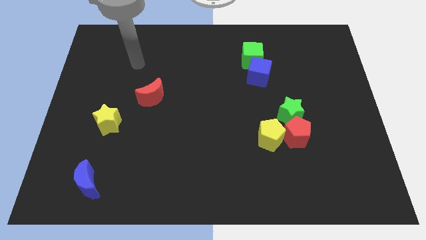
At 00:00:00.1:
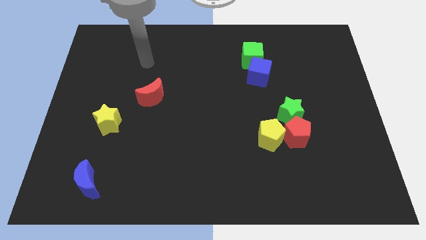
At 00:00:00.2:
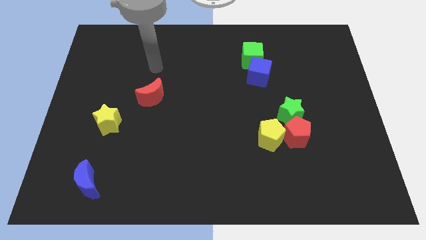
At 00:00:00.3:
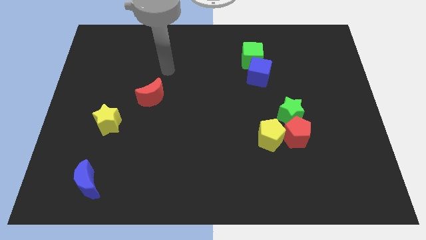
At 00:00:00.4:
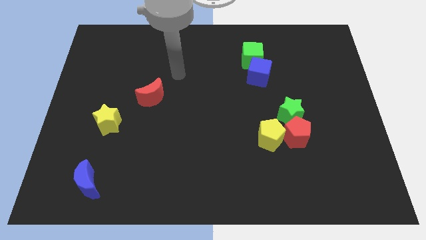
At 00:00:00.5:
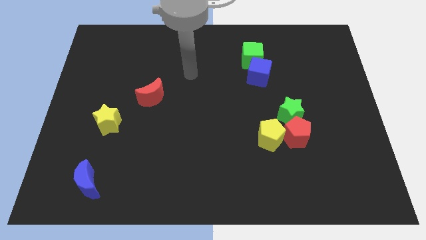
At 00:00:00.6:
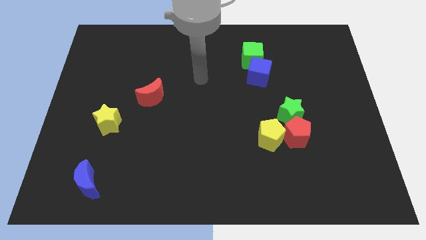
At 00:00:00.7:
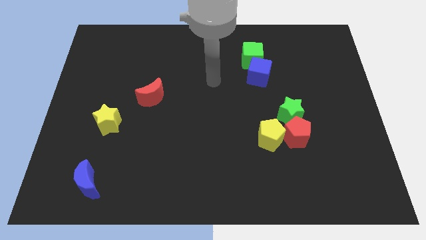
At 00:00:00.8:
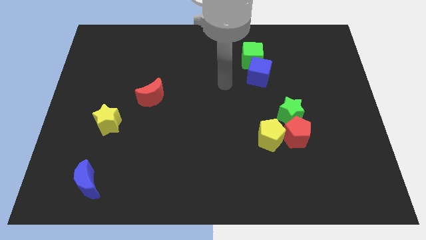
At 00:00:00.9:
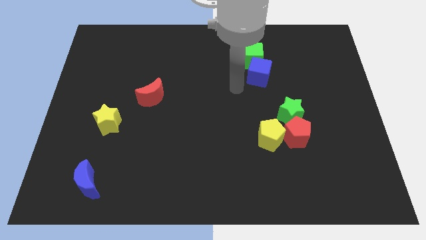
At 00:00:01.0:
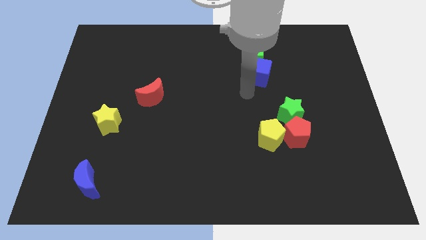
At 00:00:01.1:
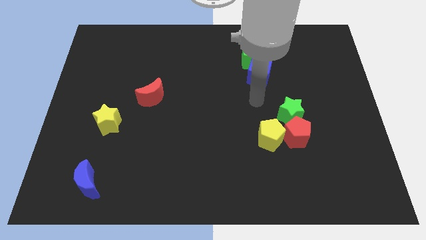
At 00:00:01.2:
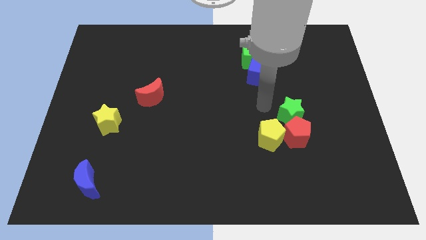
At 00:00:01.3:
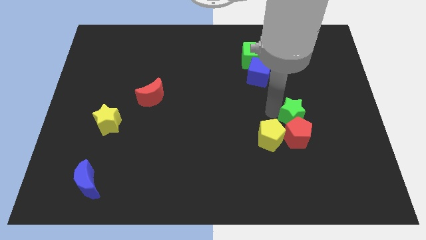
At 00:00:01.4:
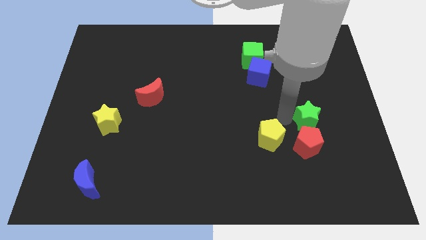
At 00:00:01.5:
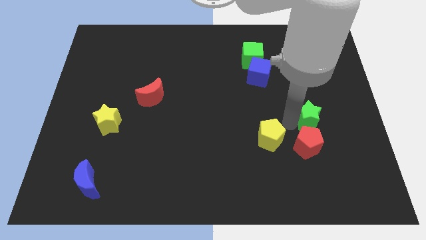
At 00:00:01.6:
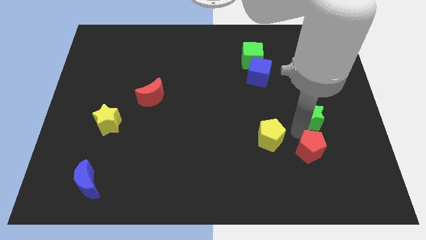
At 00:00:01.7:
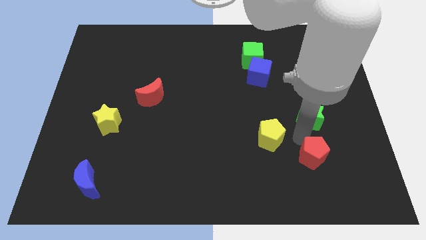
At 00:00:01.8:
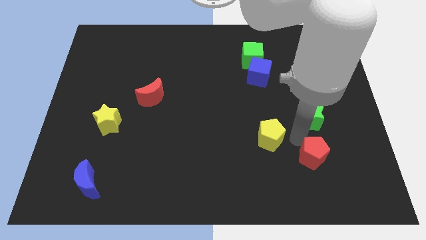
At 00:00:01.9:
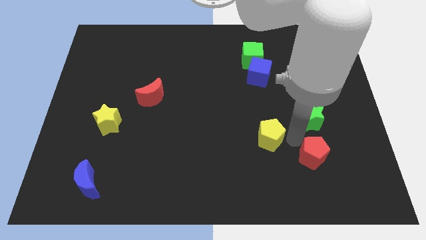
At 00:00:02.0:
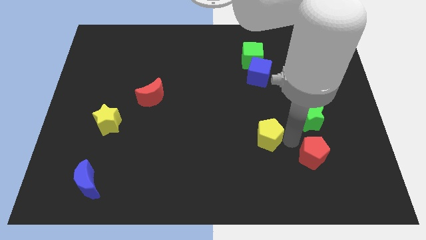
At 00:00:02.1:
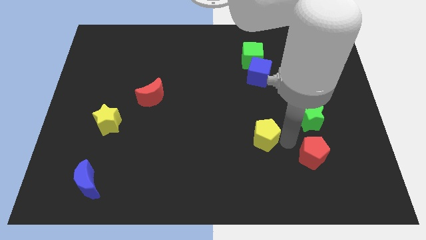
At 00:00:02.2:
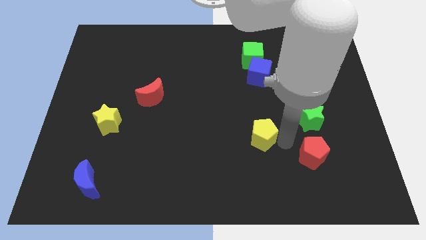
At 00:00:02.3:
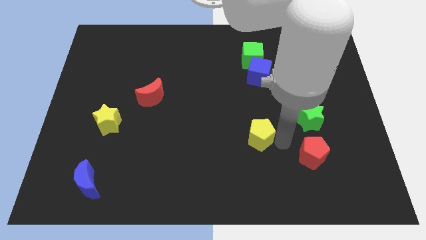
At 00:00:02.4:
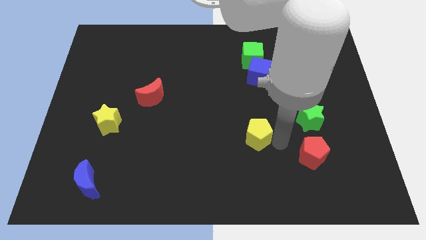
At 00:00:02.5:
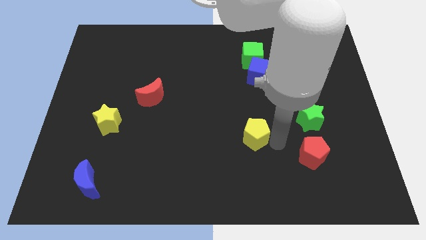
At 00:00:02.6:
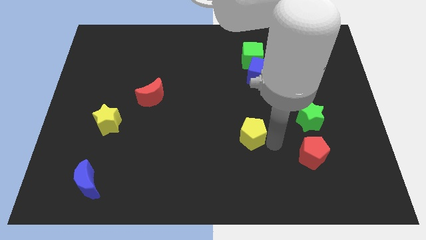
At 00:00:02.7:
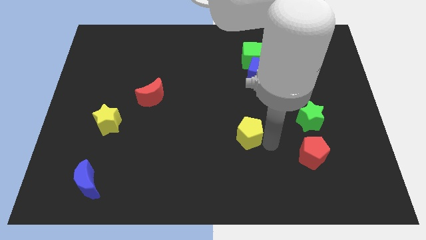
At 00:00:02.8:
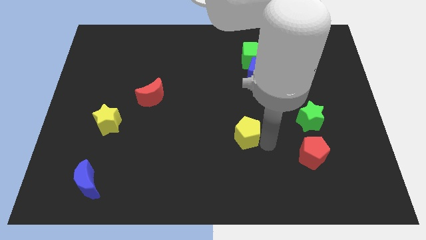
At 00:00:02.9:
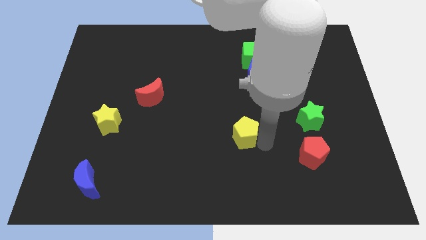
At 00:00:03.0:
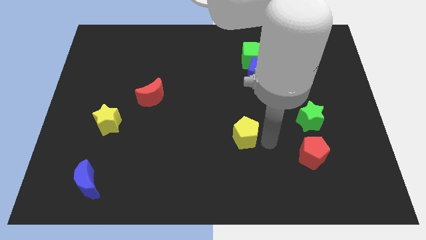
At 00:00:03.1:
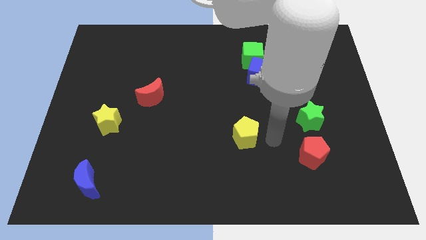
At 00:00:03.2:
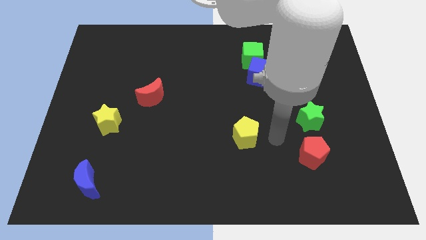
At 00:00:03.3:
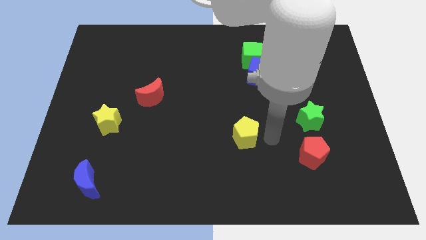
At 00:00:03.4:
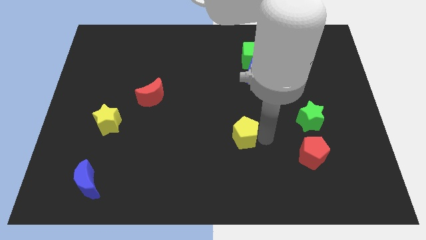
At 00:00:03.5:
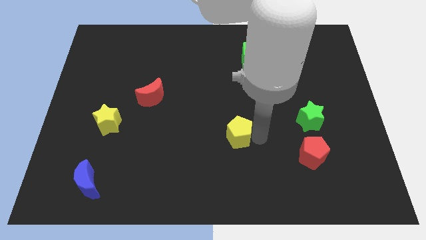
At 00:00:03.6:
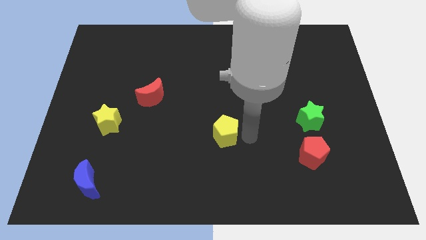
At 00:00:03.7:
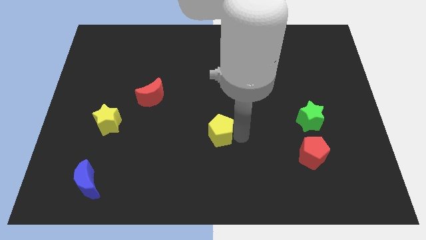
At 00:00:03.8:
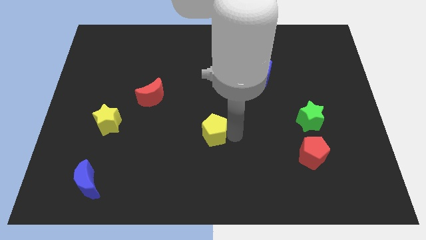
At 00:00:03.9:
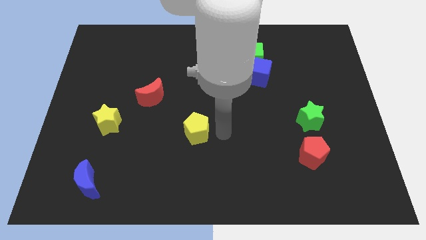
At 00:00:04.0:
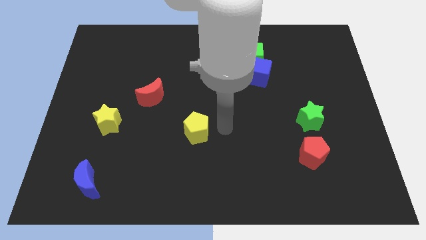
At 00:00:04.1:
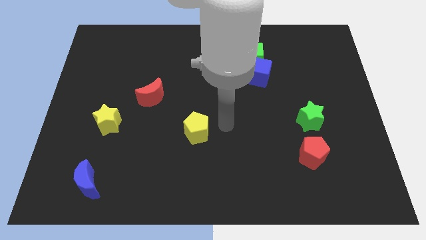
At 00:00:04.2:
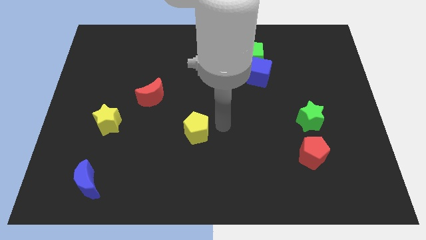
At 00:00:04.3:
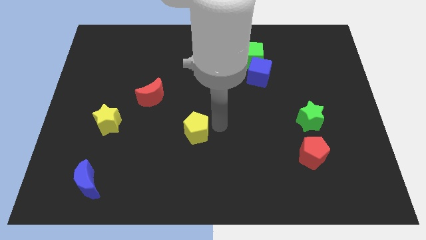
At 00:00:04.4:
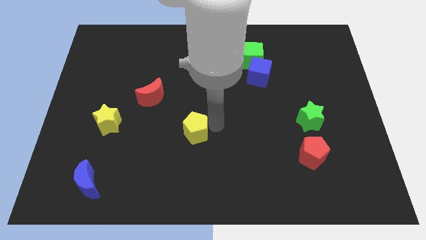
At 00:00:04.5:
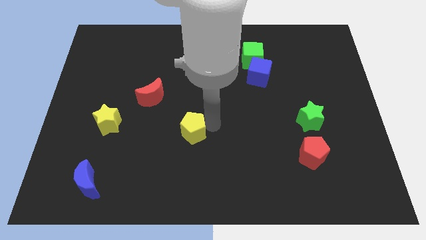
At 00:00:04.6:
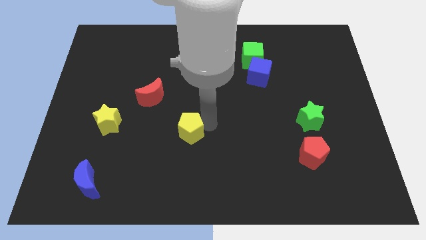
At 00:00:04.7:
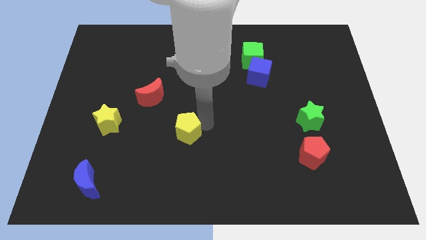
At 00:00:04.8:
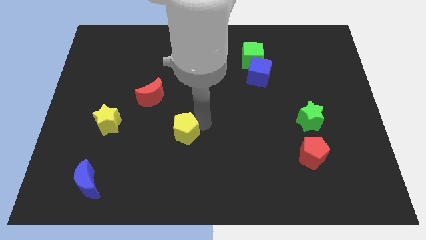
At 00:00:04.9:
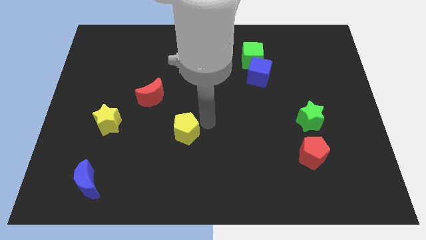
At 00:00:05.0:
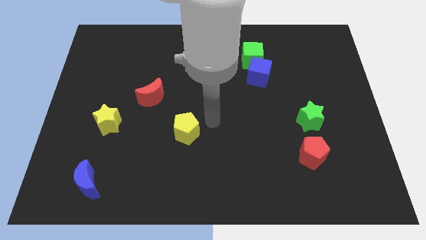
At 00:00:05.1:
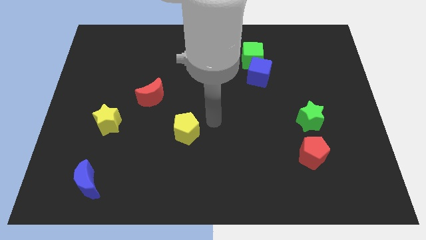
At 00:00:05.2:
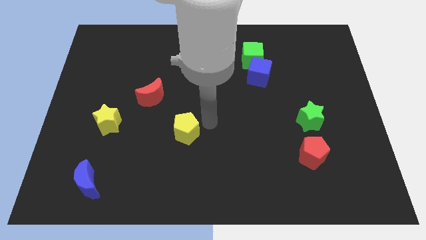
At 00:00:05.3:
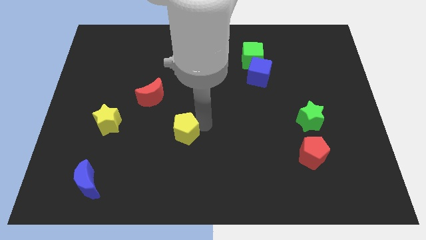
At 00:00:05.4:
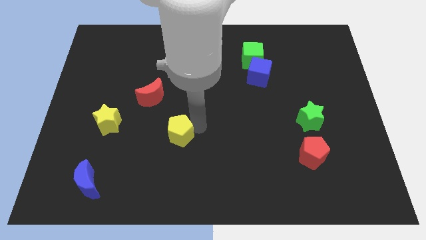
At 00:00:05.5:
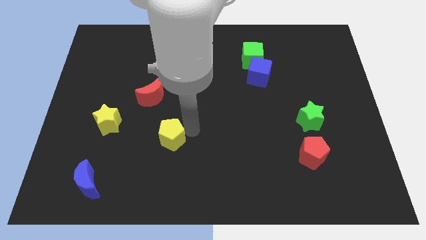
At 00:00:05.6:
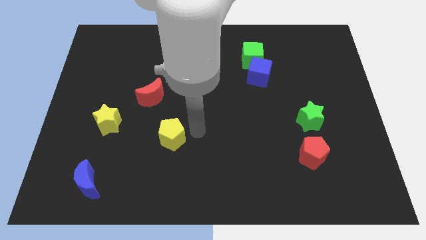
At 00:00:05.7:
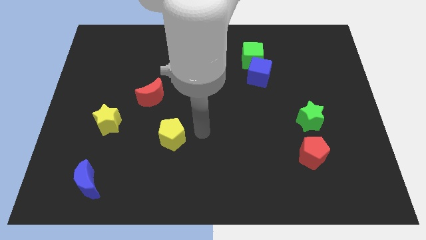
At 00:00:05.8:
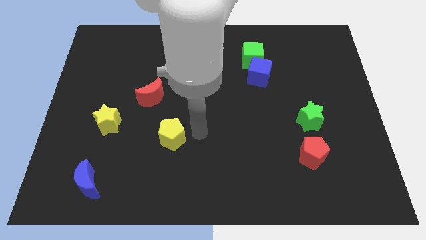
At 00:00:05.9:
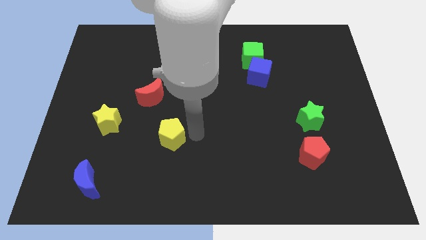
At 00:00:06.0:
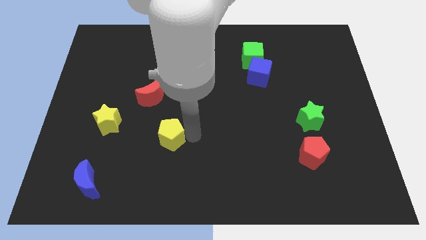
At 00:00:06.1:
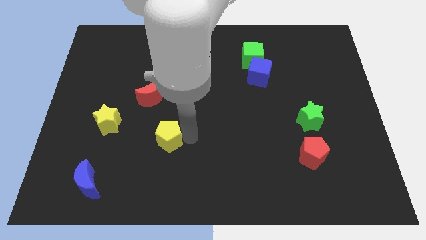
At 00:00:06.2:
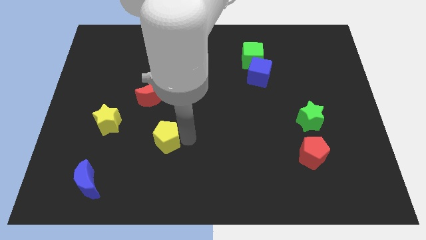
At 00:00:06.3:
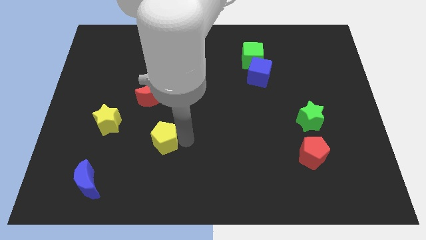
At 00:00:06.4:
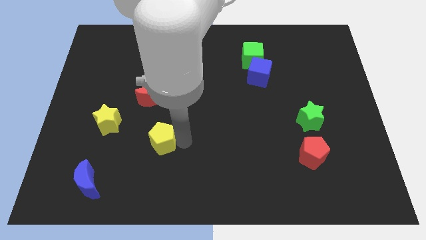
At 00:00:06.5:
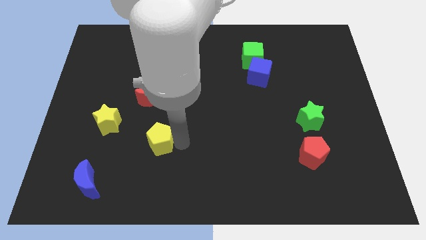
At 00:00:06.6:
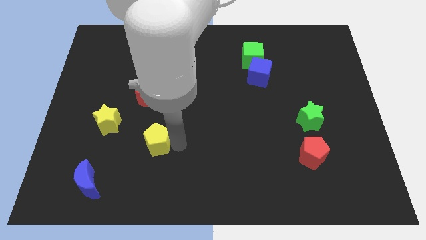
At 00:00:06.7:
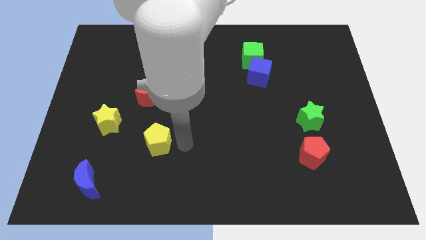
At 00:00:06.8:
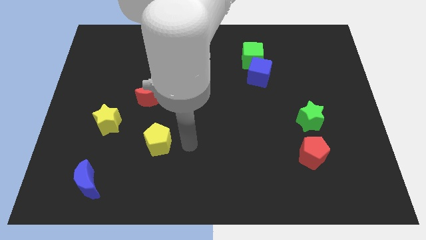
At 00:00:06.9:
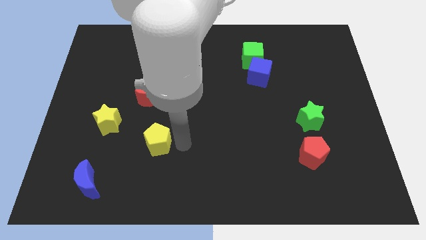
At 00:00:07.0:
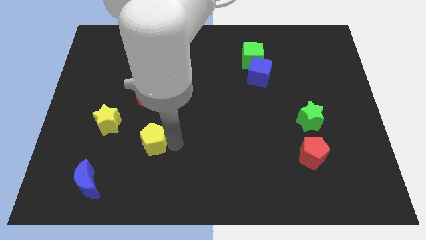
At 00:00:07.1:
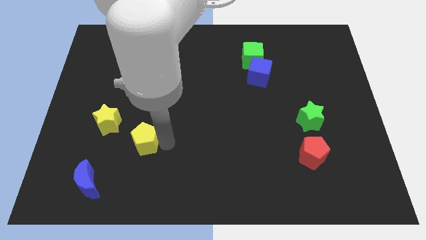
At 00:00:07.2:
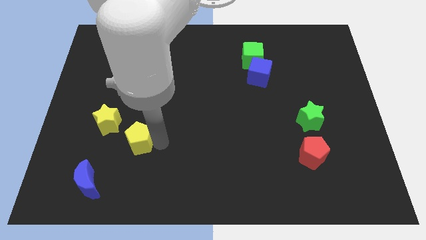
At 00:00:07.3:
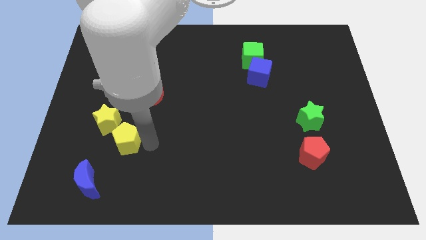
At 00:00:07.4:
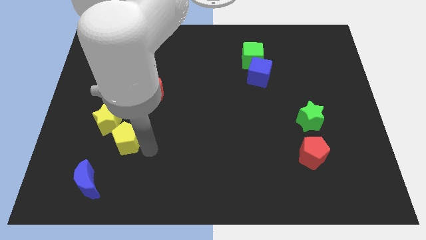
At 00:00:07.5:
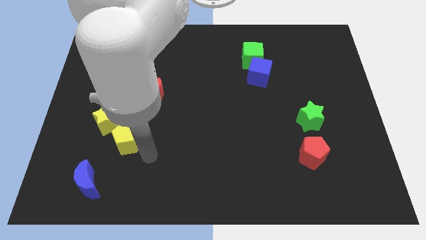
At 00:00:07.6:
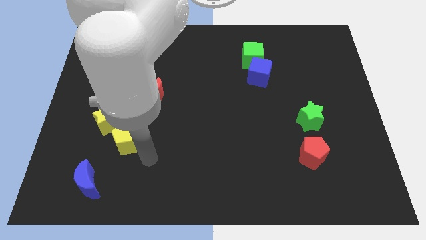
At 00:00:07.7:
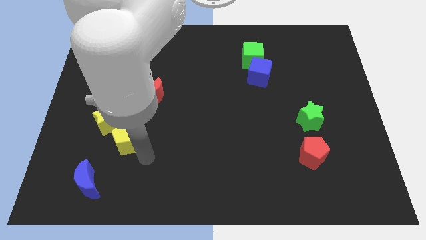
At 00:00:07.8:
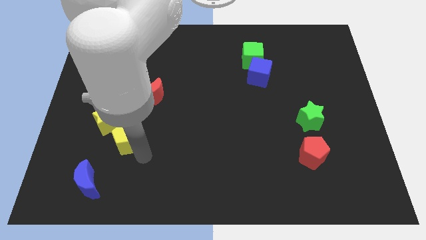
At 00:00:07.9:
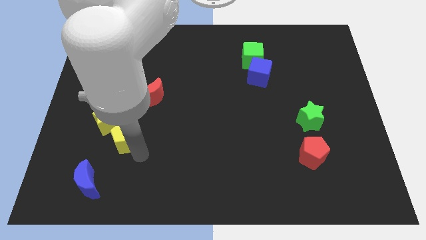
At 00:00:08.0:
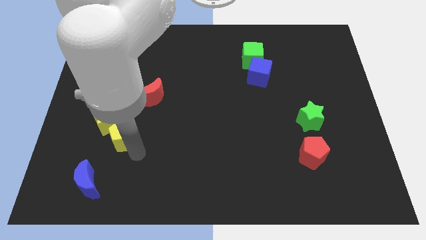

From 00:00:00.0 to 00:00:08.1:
slide the yellow pentagon to the yellow star
